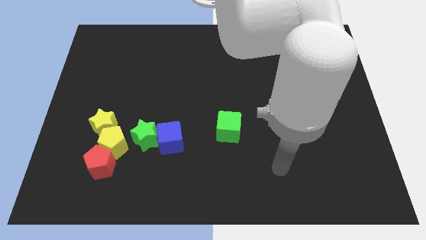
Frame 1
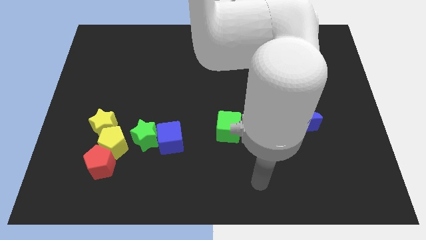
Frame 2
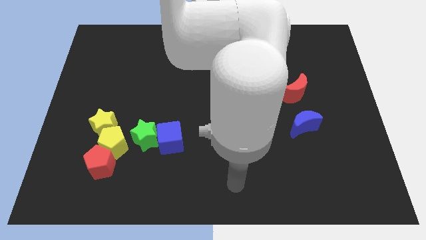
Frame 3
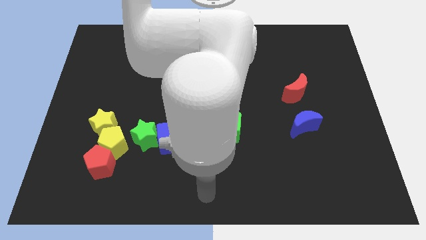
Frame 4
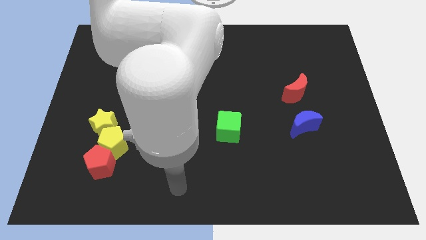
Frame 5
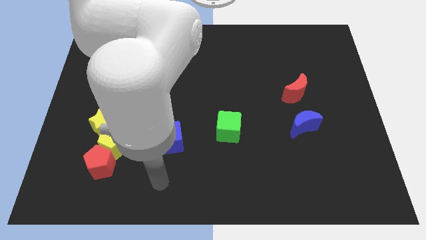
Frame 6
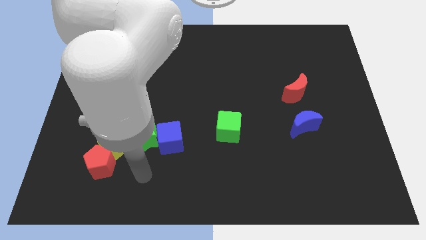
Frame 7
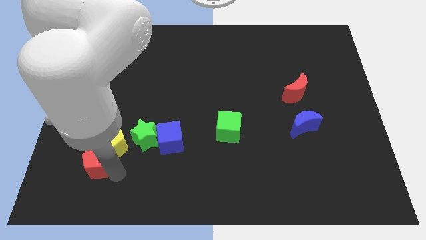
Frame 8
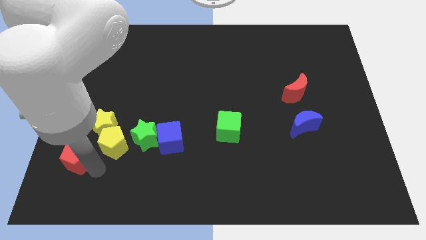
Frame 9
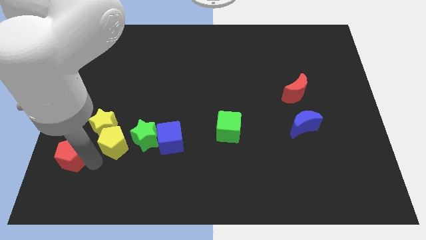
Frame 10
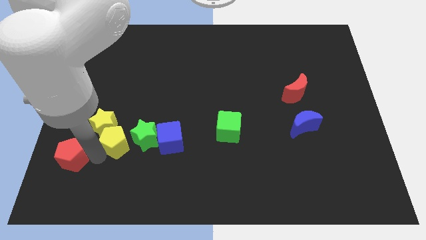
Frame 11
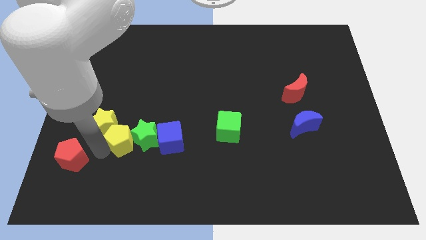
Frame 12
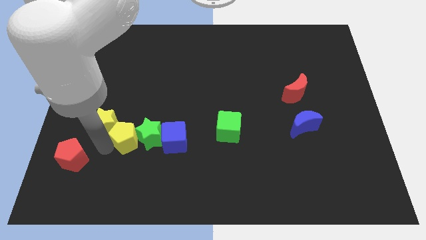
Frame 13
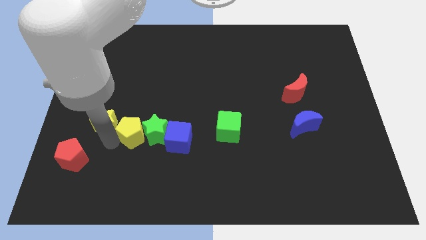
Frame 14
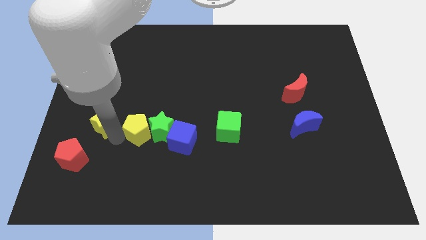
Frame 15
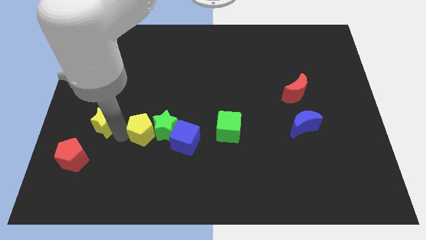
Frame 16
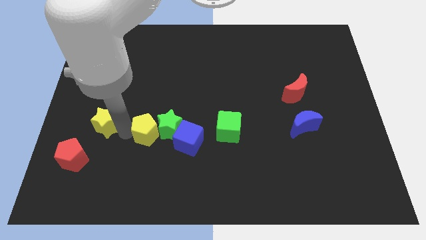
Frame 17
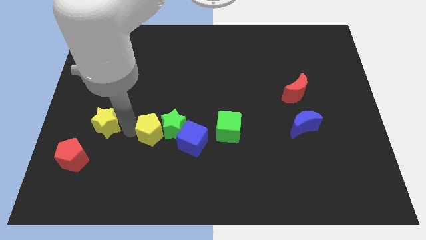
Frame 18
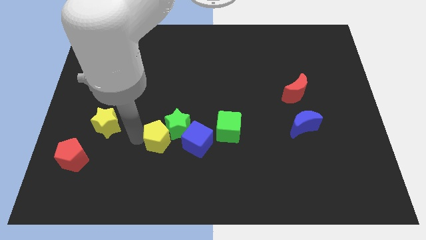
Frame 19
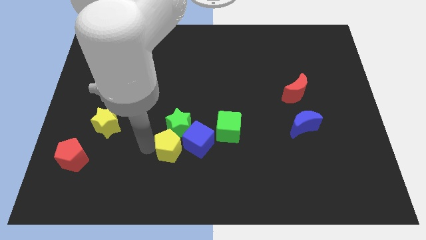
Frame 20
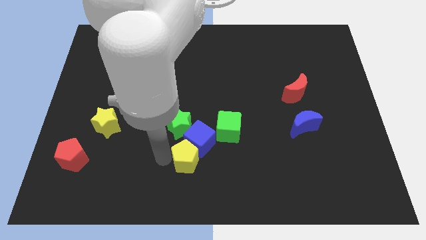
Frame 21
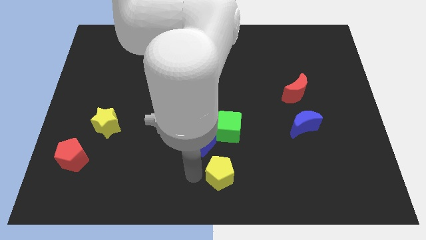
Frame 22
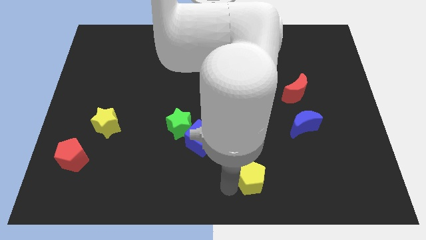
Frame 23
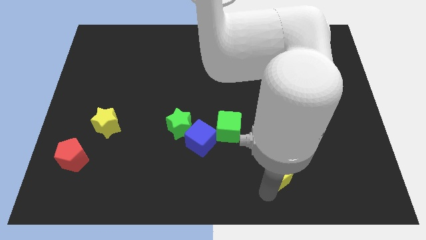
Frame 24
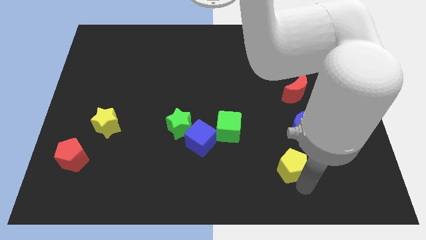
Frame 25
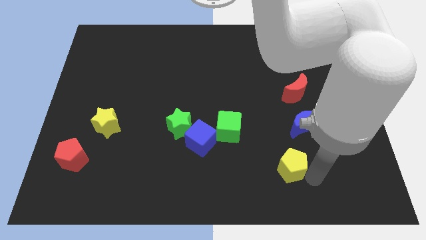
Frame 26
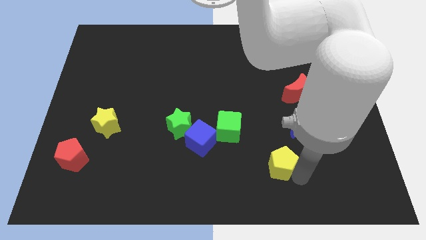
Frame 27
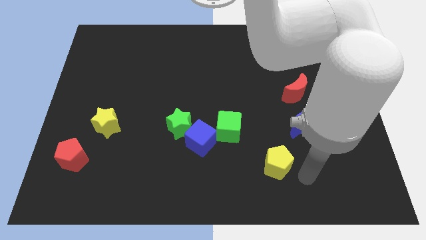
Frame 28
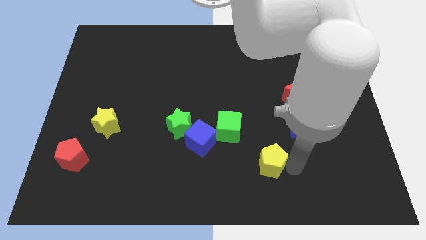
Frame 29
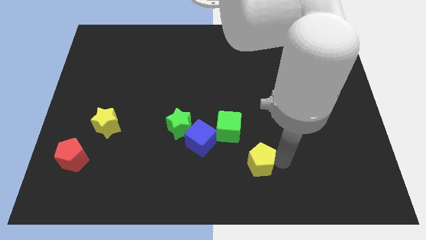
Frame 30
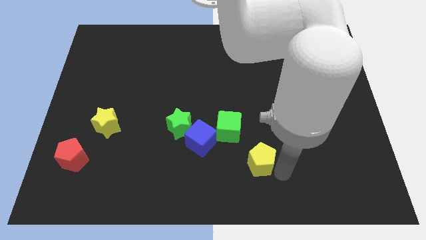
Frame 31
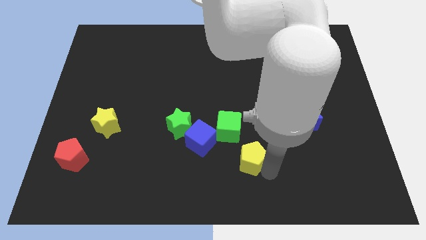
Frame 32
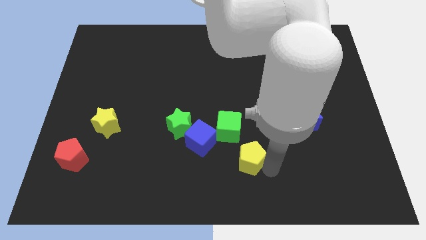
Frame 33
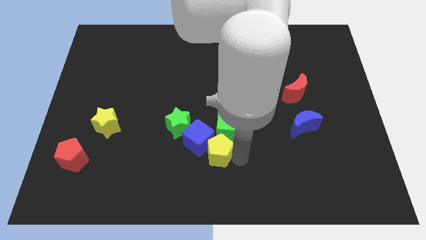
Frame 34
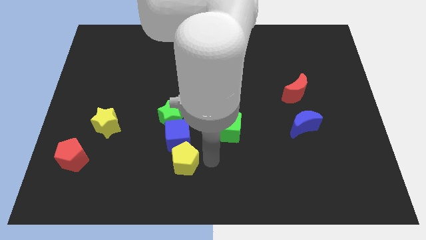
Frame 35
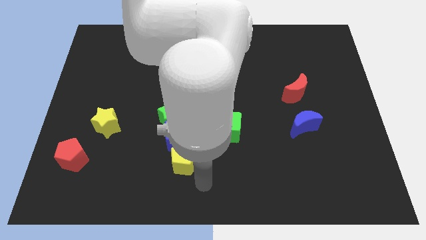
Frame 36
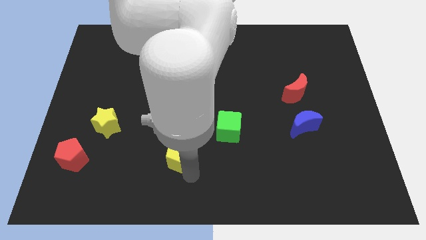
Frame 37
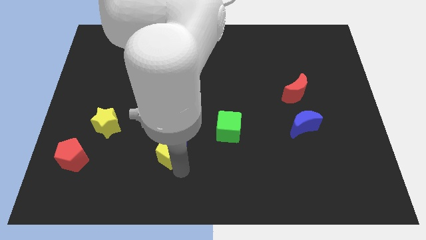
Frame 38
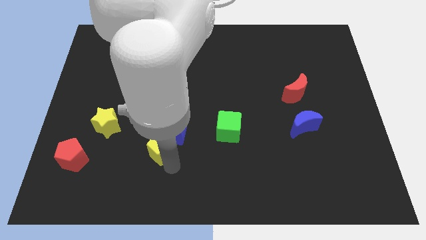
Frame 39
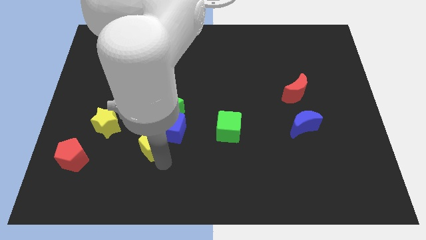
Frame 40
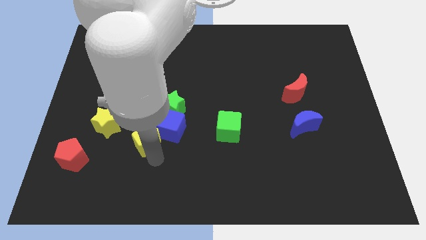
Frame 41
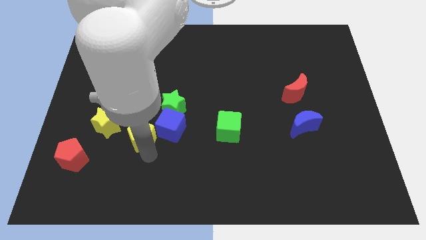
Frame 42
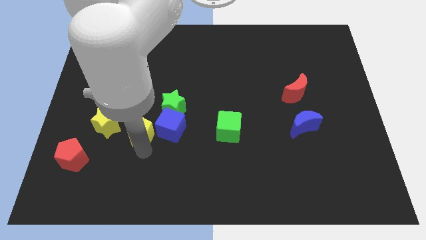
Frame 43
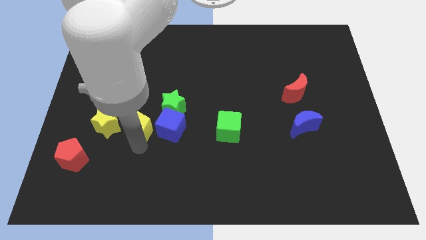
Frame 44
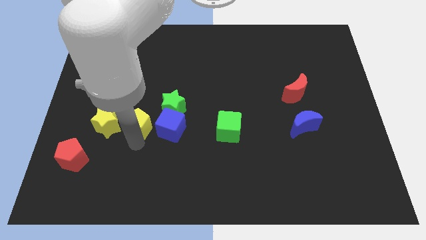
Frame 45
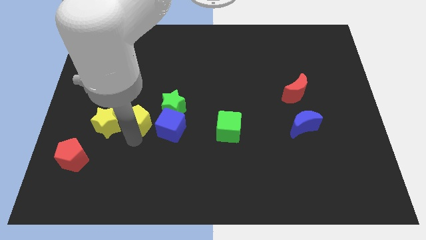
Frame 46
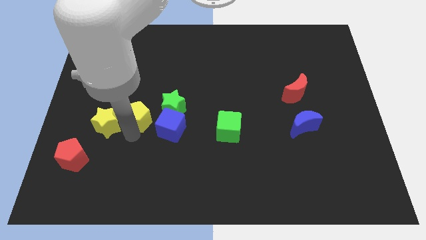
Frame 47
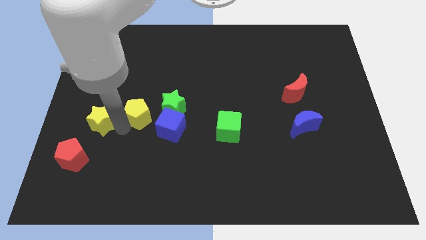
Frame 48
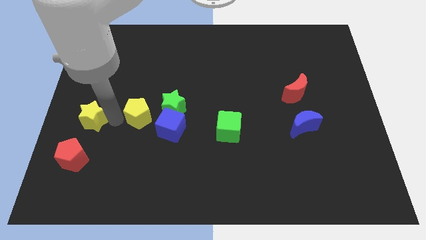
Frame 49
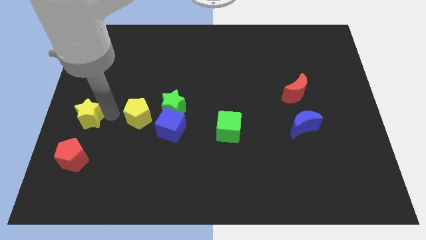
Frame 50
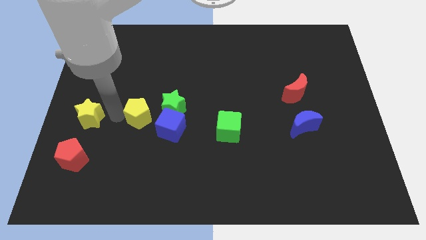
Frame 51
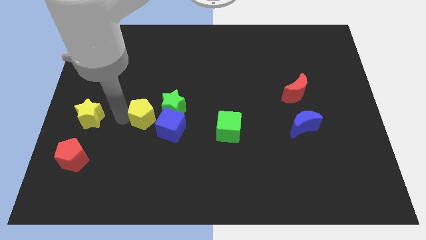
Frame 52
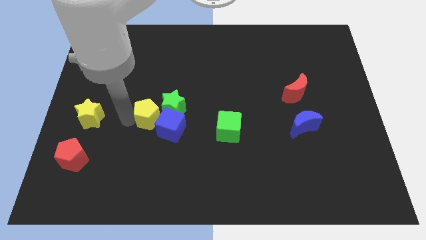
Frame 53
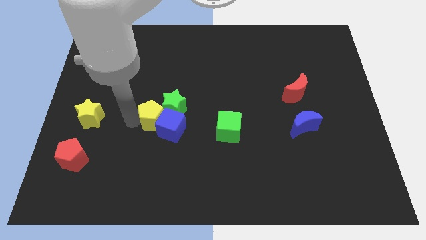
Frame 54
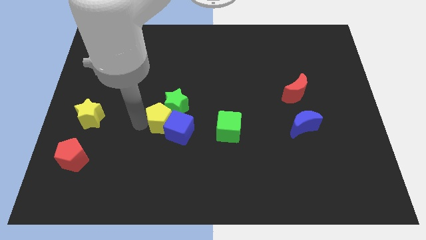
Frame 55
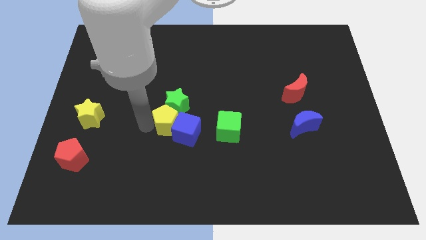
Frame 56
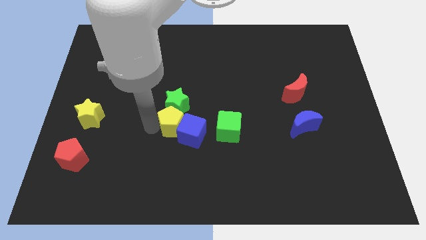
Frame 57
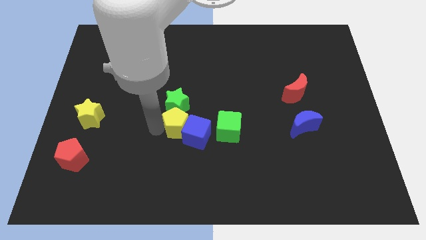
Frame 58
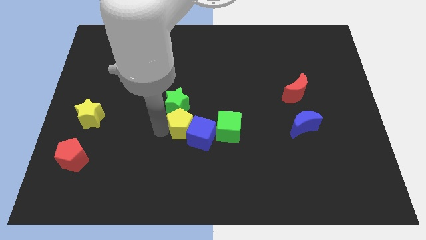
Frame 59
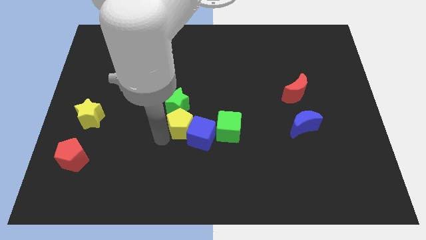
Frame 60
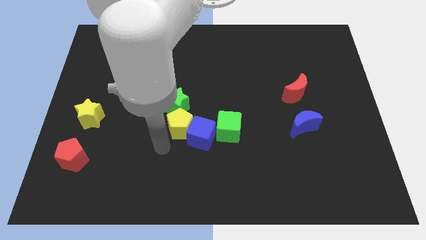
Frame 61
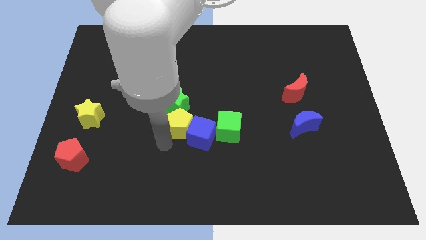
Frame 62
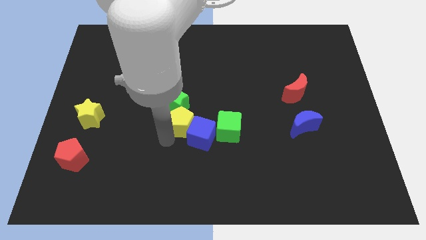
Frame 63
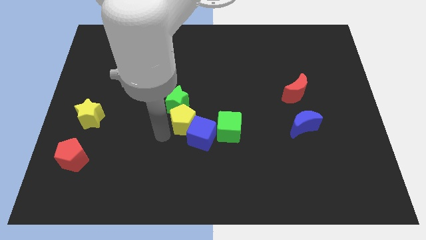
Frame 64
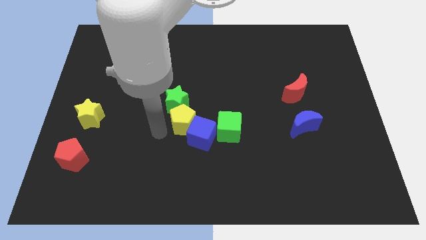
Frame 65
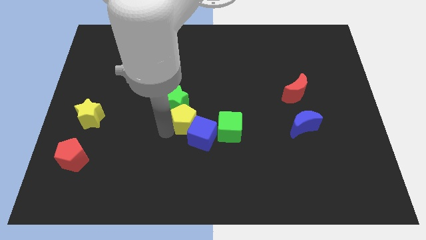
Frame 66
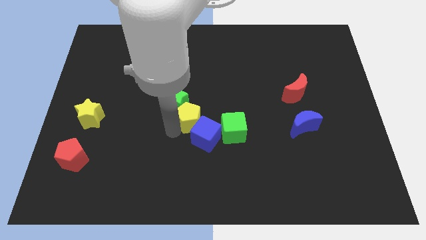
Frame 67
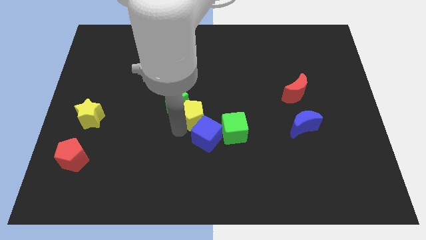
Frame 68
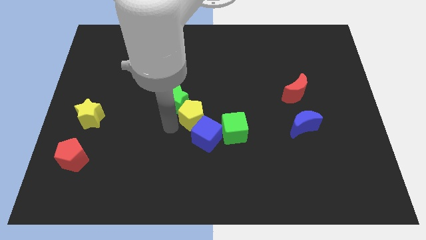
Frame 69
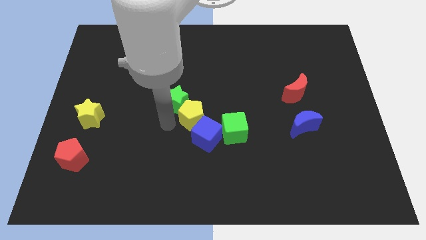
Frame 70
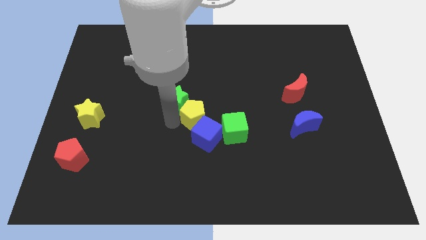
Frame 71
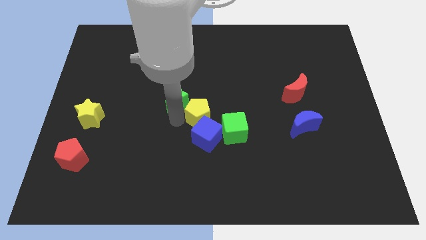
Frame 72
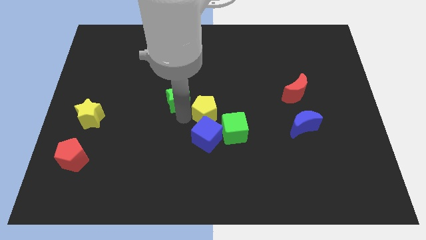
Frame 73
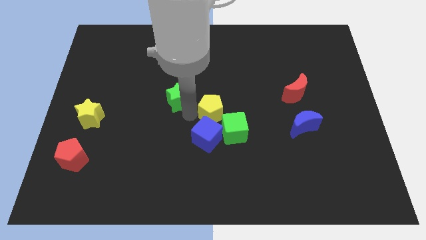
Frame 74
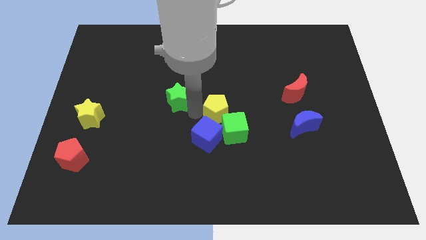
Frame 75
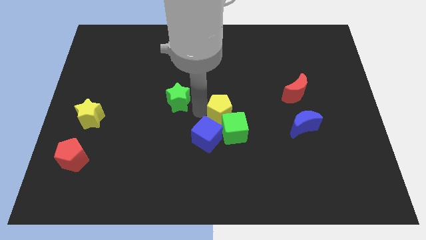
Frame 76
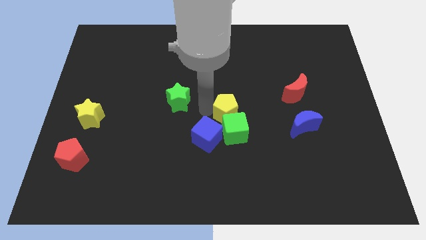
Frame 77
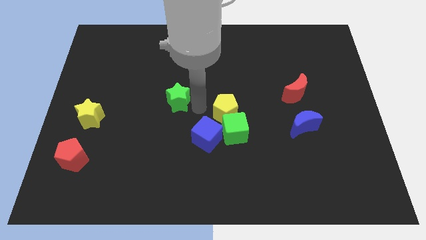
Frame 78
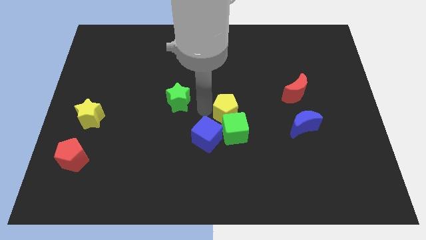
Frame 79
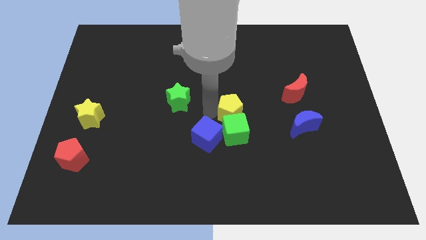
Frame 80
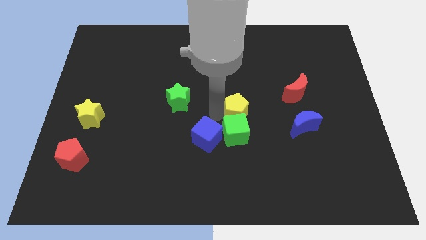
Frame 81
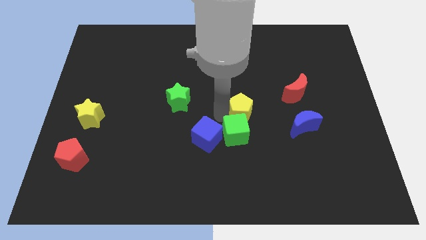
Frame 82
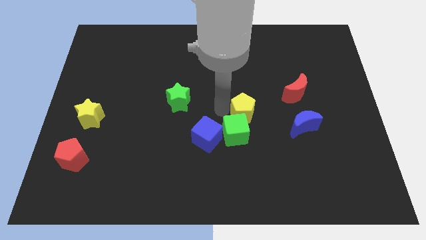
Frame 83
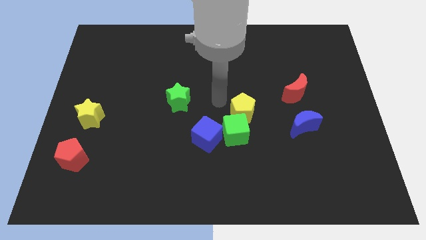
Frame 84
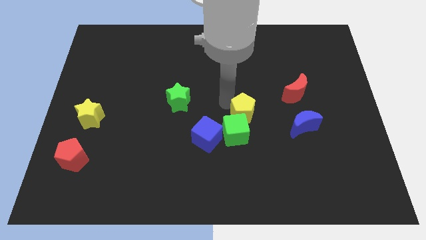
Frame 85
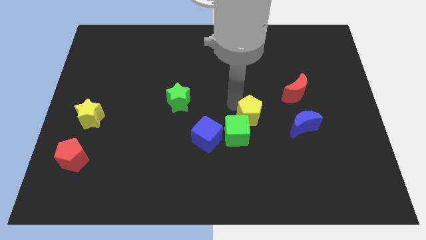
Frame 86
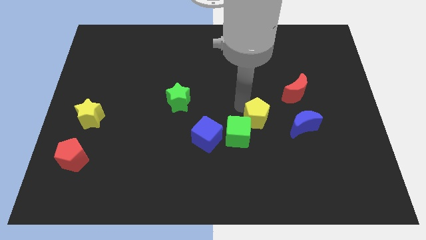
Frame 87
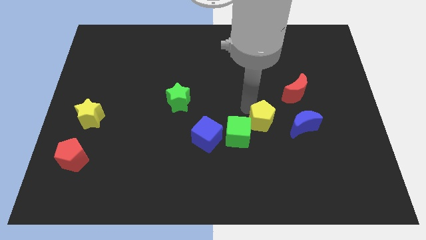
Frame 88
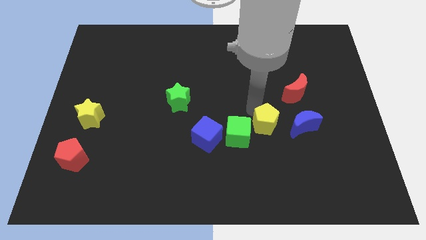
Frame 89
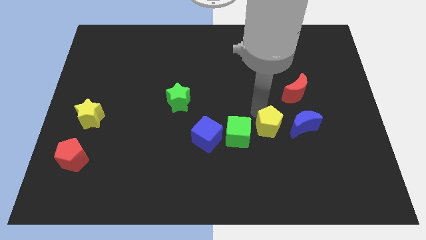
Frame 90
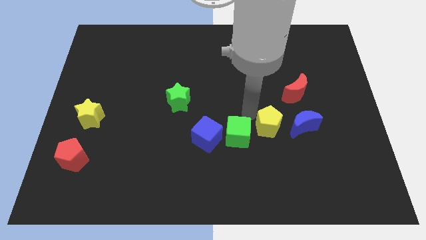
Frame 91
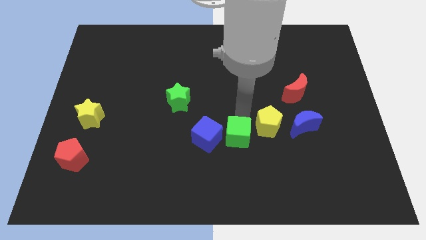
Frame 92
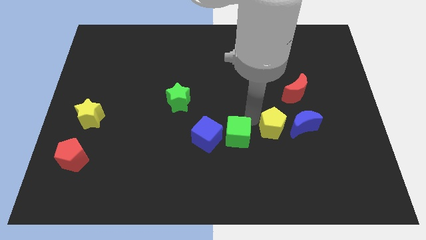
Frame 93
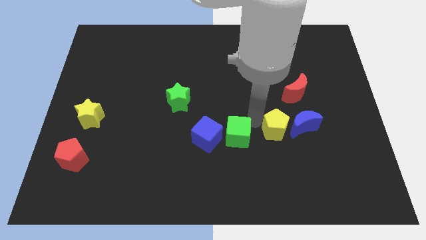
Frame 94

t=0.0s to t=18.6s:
push the yellow pentagon towards the blue moon
